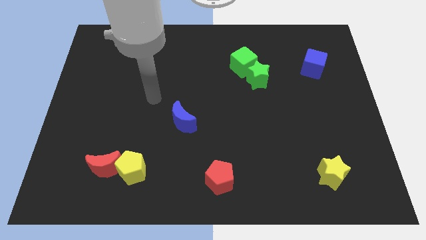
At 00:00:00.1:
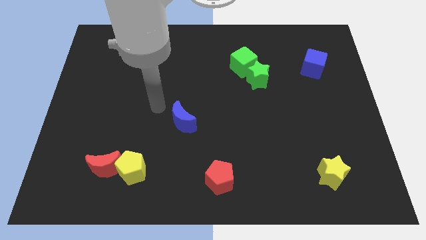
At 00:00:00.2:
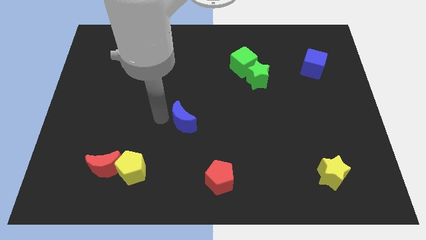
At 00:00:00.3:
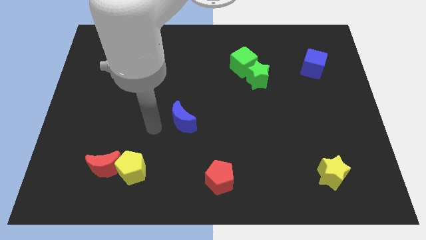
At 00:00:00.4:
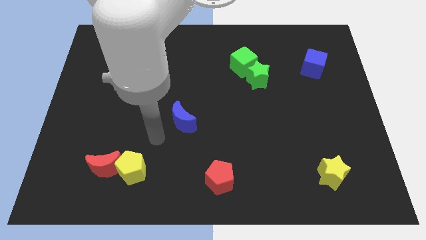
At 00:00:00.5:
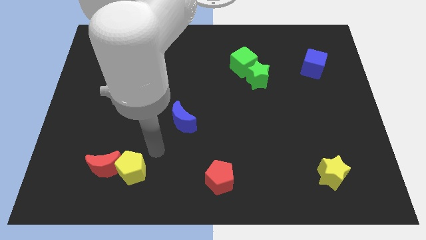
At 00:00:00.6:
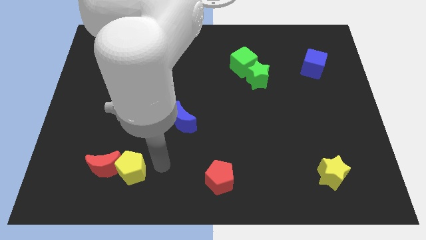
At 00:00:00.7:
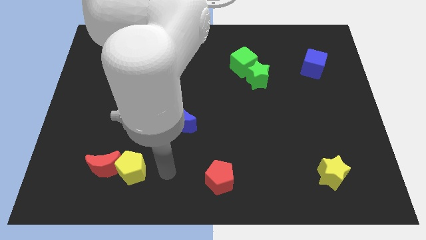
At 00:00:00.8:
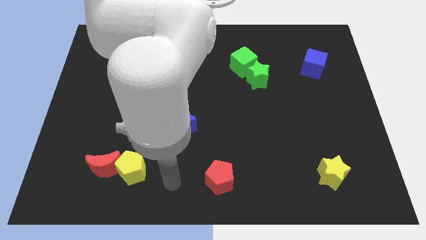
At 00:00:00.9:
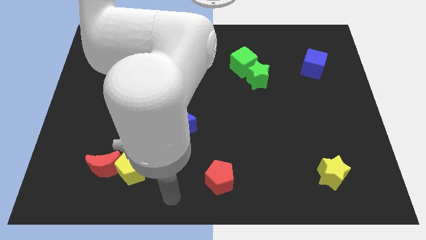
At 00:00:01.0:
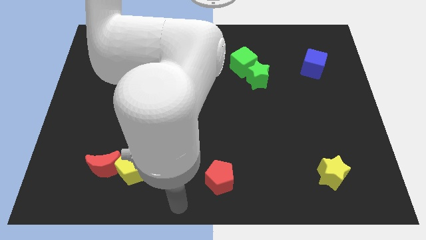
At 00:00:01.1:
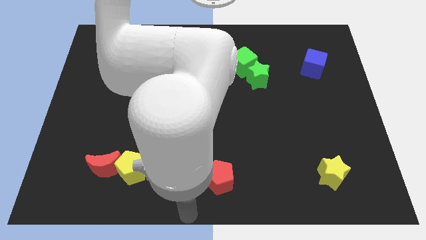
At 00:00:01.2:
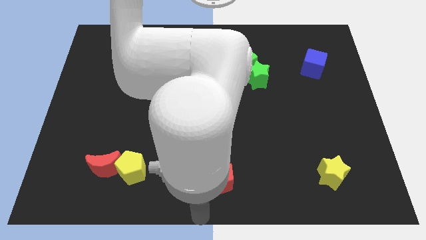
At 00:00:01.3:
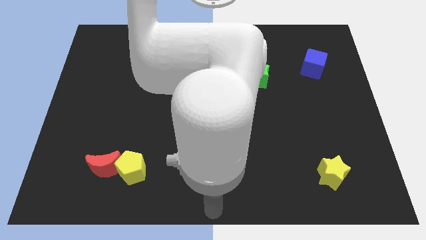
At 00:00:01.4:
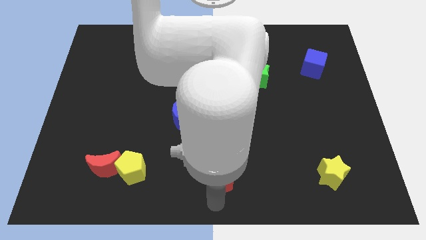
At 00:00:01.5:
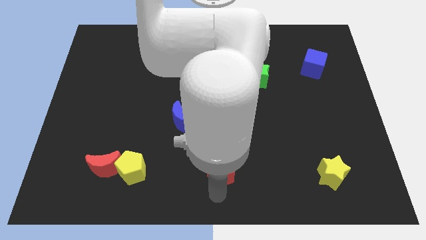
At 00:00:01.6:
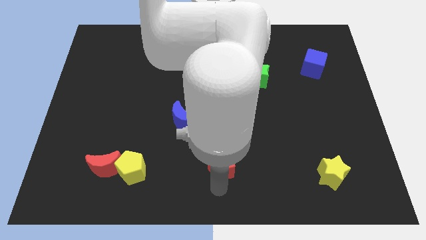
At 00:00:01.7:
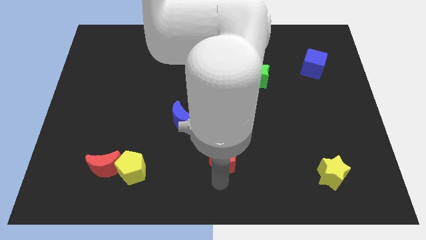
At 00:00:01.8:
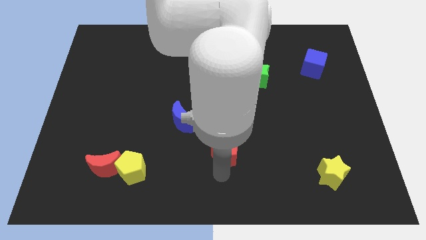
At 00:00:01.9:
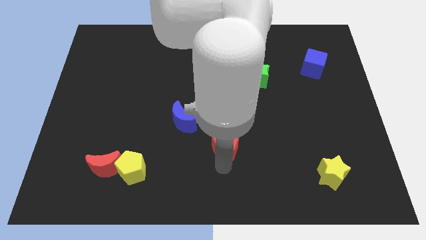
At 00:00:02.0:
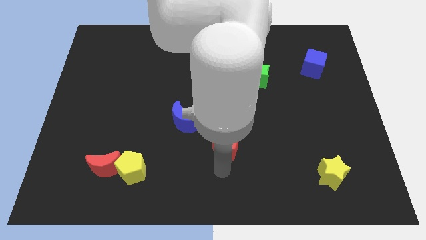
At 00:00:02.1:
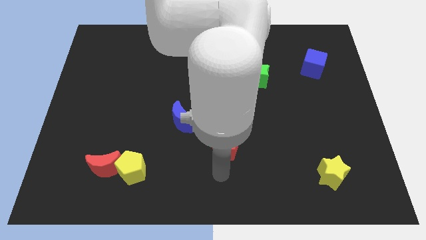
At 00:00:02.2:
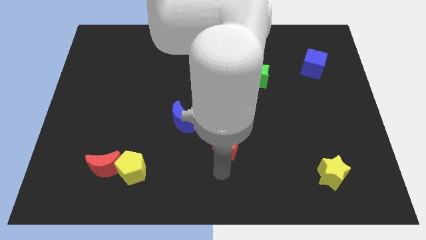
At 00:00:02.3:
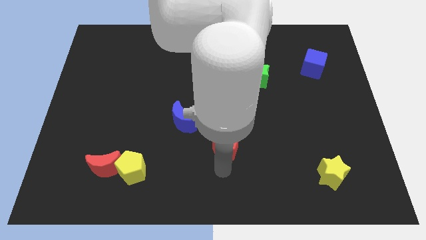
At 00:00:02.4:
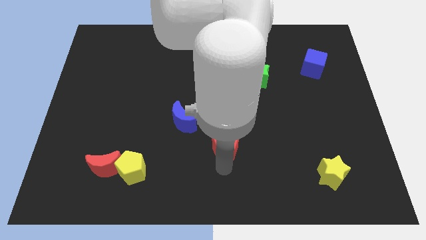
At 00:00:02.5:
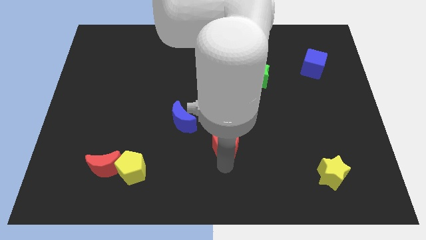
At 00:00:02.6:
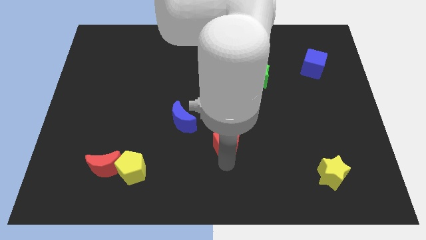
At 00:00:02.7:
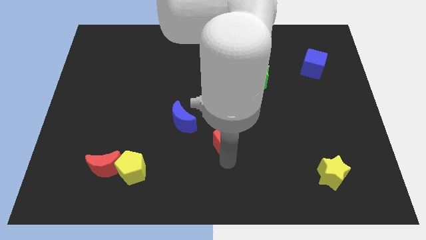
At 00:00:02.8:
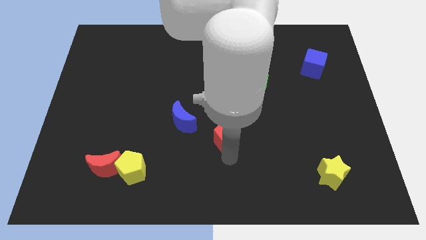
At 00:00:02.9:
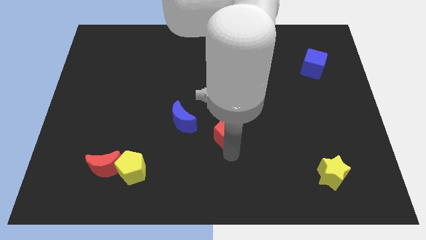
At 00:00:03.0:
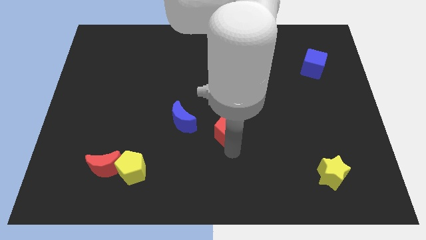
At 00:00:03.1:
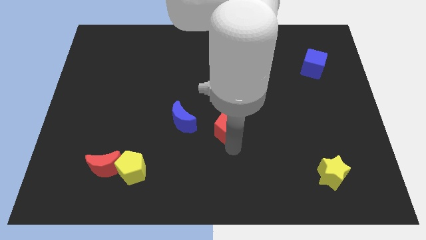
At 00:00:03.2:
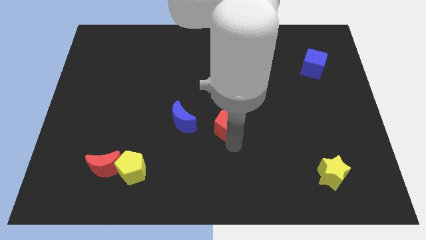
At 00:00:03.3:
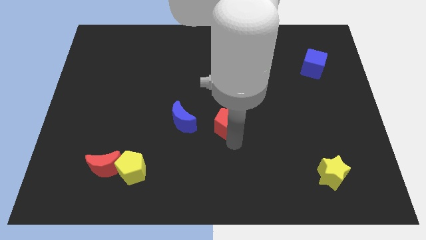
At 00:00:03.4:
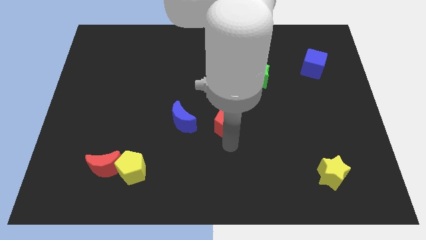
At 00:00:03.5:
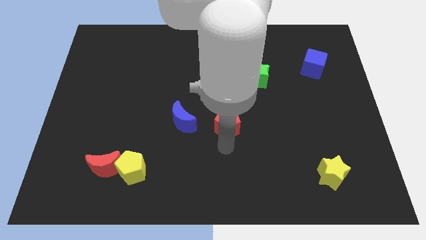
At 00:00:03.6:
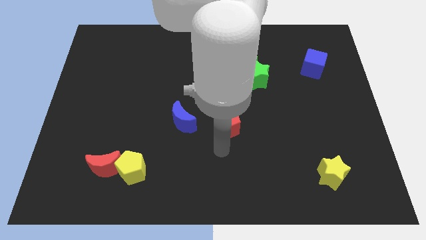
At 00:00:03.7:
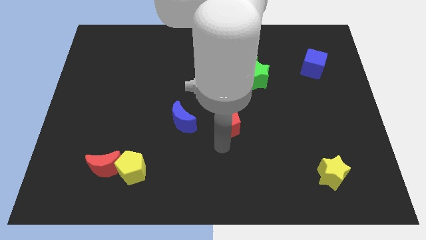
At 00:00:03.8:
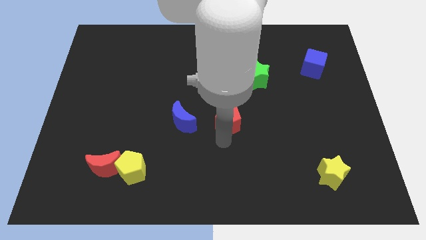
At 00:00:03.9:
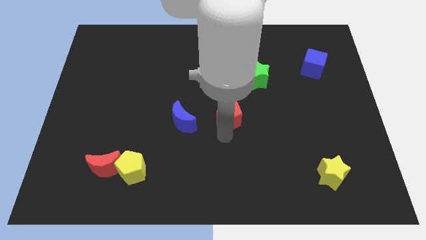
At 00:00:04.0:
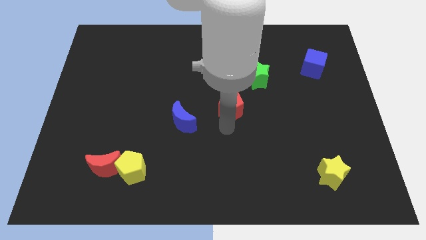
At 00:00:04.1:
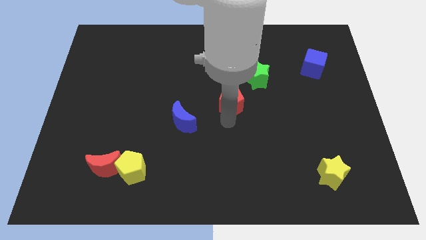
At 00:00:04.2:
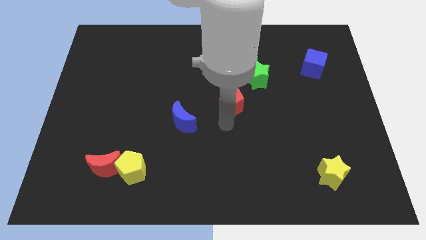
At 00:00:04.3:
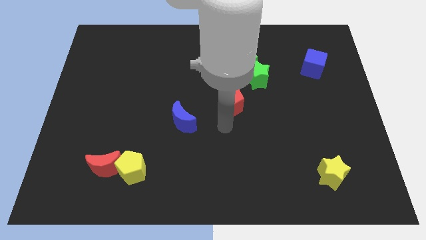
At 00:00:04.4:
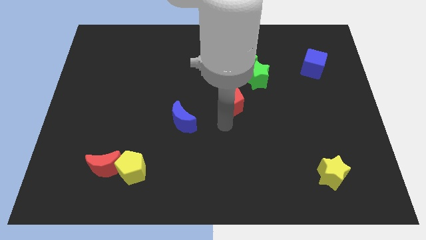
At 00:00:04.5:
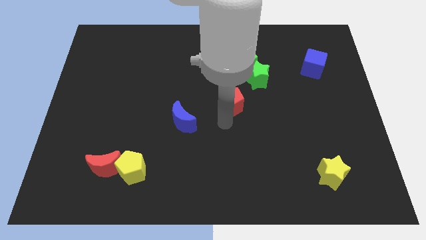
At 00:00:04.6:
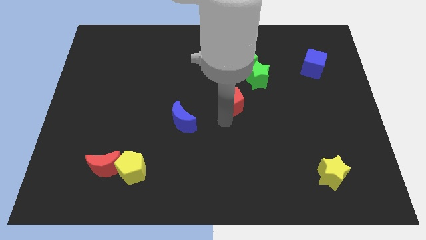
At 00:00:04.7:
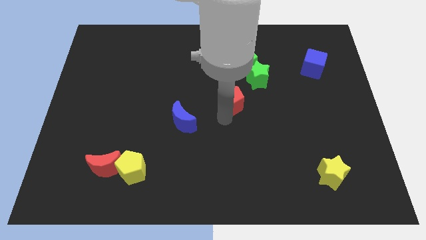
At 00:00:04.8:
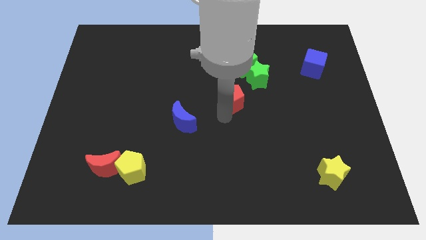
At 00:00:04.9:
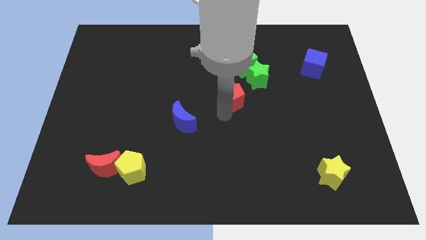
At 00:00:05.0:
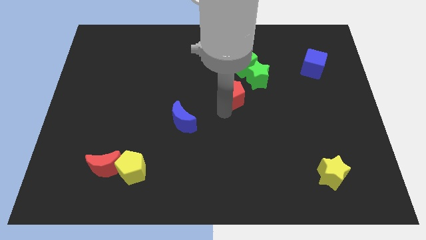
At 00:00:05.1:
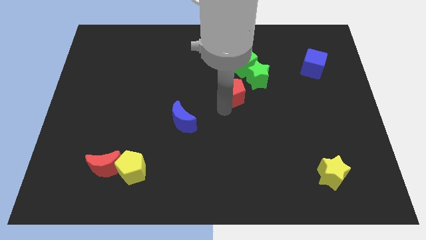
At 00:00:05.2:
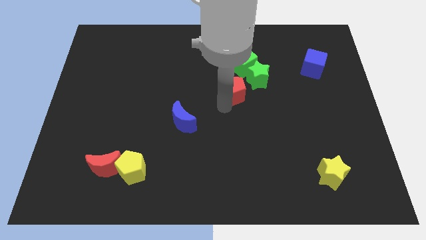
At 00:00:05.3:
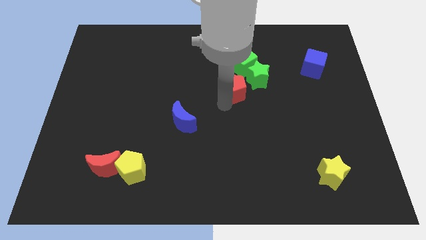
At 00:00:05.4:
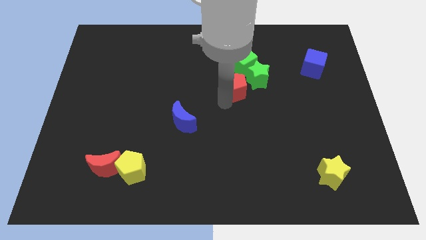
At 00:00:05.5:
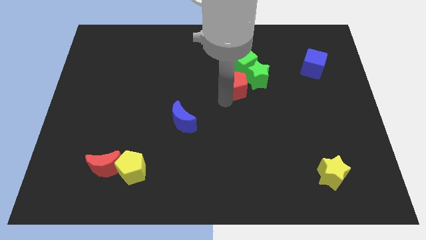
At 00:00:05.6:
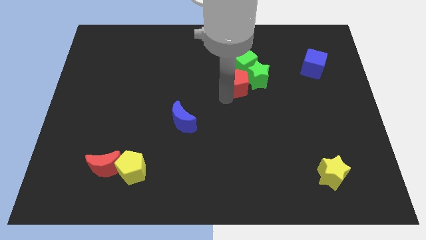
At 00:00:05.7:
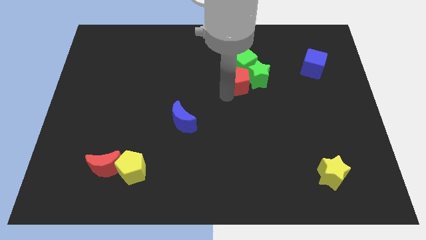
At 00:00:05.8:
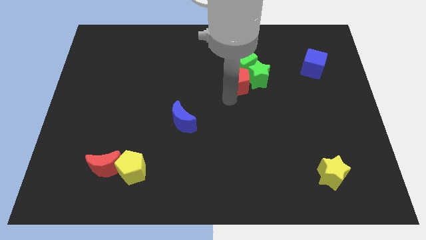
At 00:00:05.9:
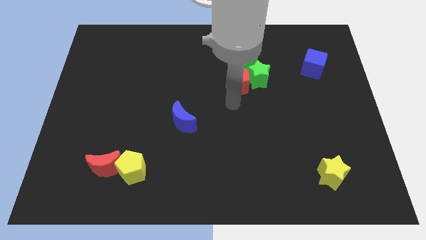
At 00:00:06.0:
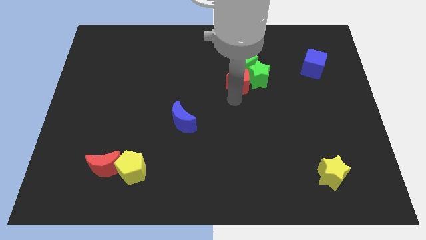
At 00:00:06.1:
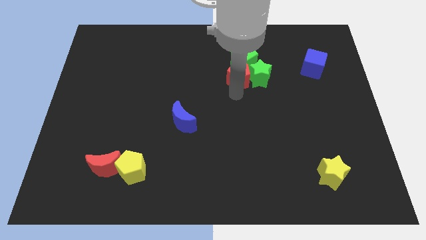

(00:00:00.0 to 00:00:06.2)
move the red pentagon next to the green cube

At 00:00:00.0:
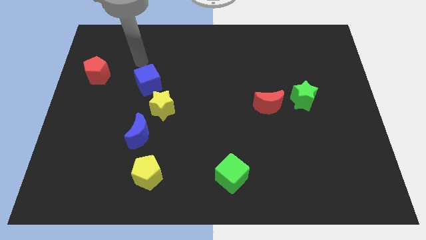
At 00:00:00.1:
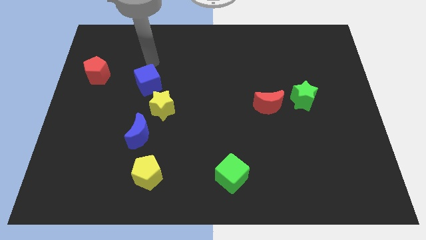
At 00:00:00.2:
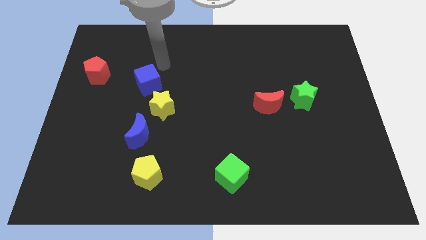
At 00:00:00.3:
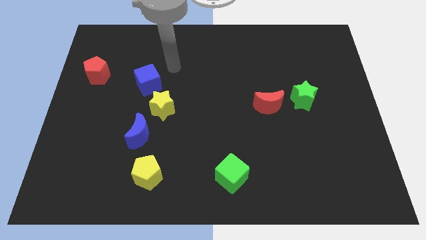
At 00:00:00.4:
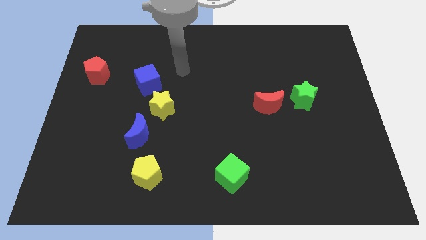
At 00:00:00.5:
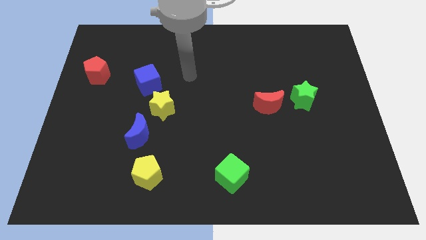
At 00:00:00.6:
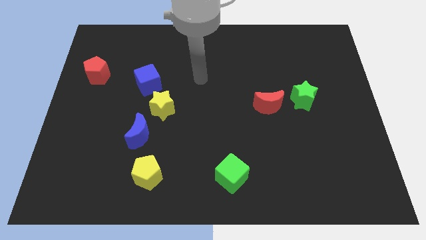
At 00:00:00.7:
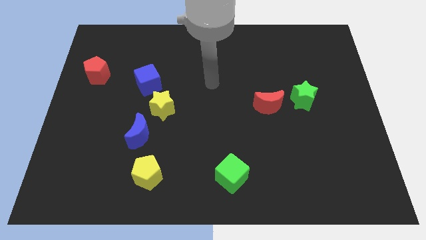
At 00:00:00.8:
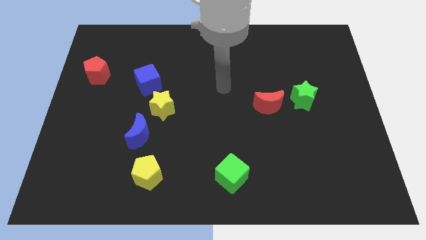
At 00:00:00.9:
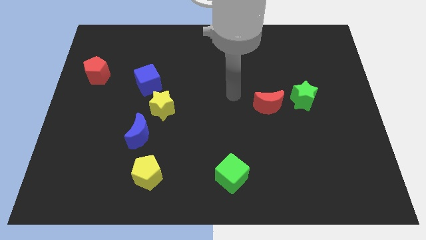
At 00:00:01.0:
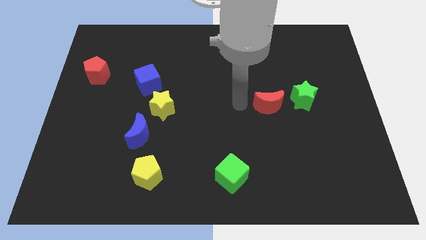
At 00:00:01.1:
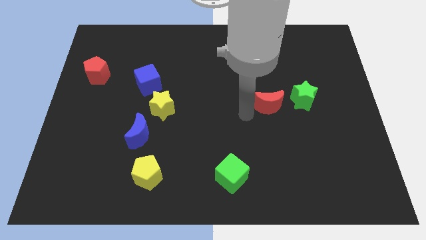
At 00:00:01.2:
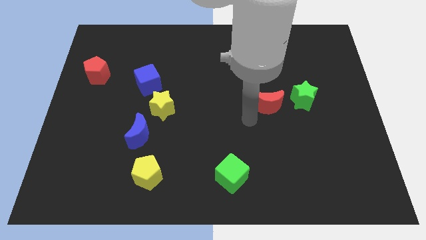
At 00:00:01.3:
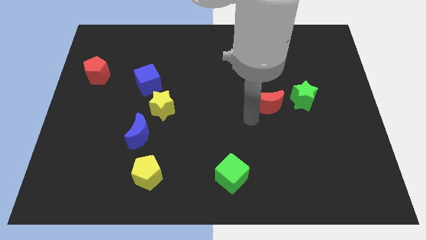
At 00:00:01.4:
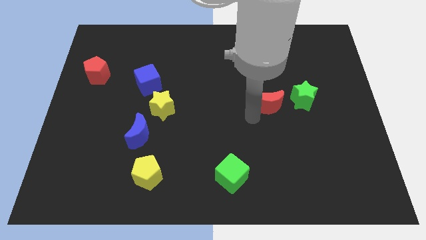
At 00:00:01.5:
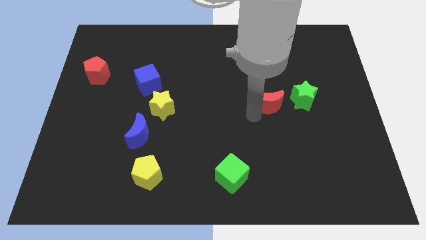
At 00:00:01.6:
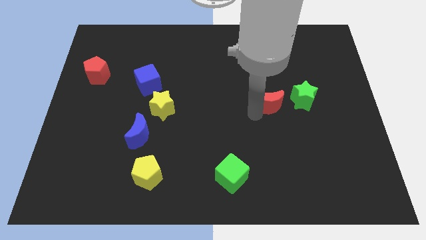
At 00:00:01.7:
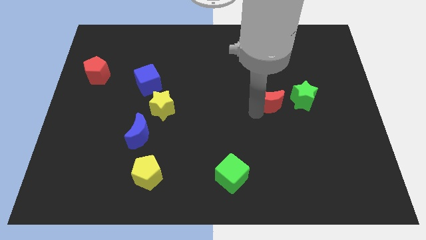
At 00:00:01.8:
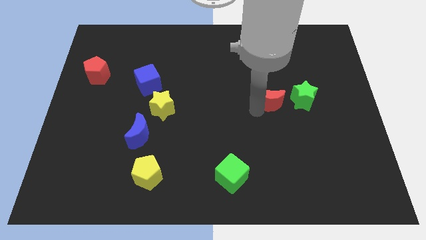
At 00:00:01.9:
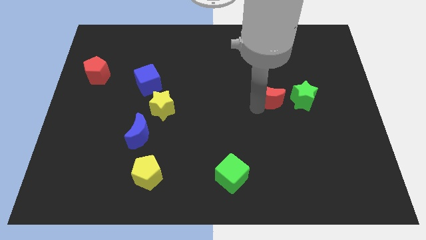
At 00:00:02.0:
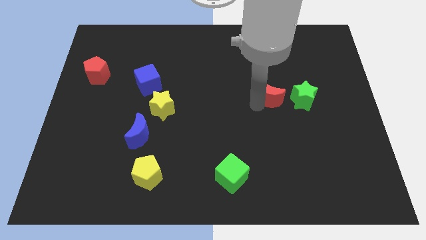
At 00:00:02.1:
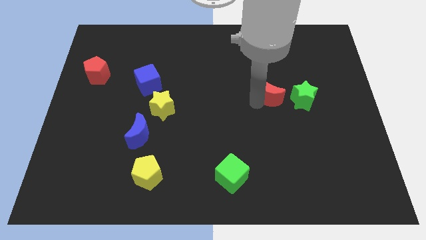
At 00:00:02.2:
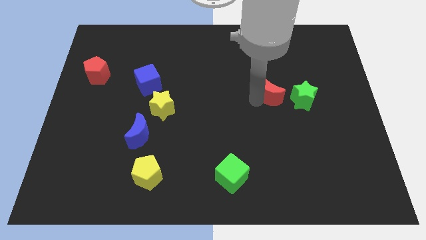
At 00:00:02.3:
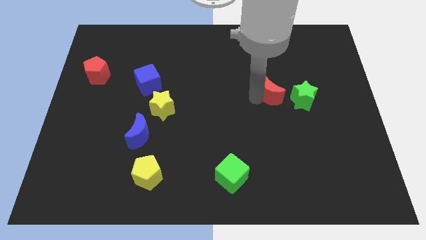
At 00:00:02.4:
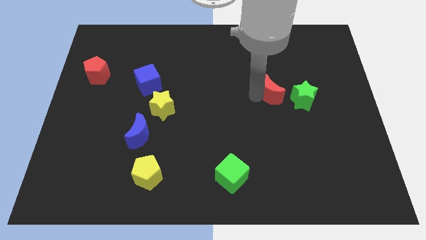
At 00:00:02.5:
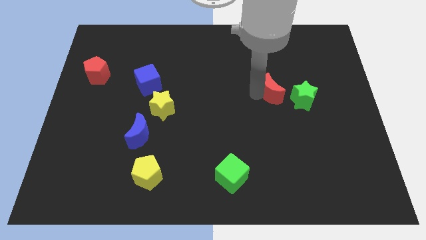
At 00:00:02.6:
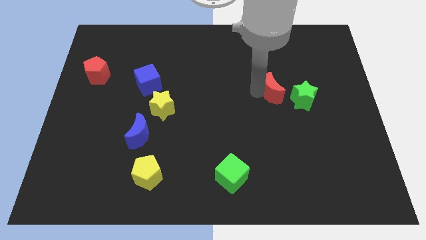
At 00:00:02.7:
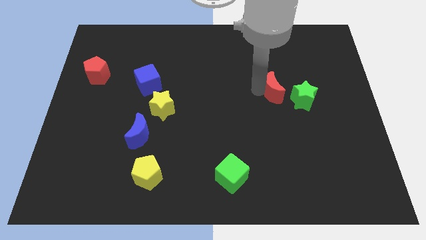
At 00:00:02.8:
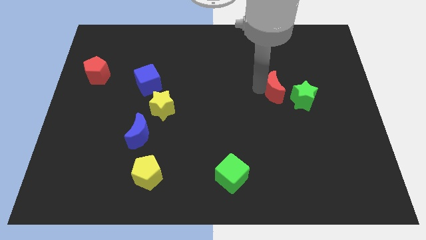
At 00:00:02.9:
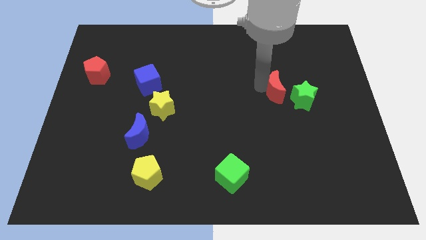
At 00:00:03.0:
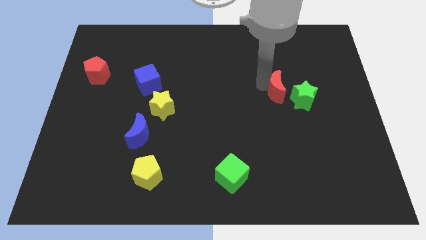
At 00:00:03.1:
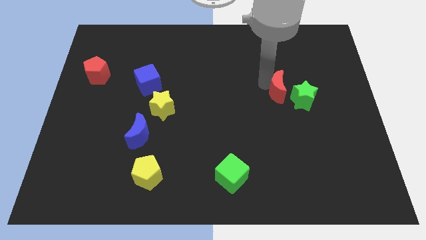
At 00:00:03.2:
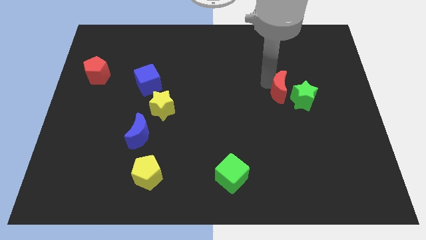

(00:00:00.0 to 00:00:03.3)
push the red moon towards the green star
